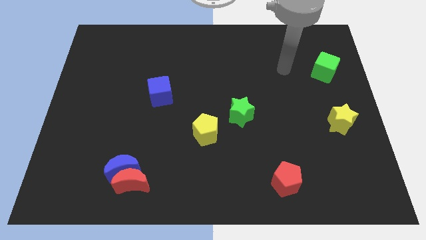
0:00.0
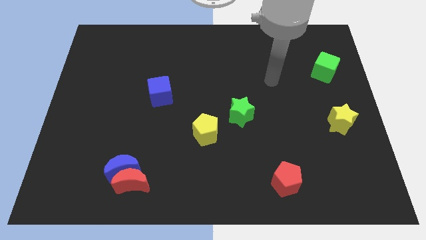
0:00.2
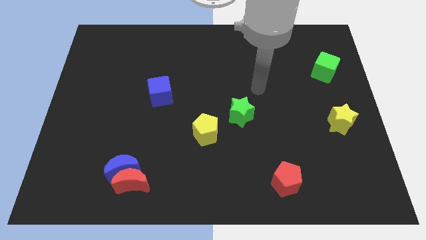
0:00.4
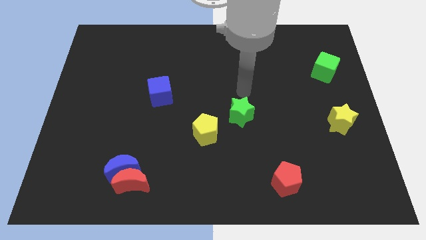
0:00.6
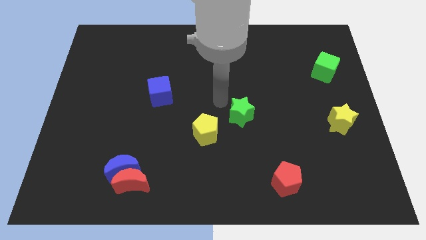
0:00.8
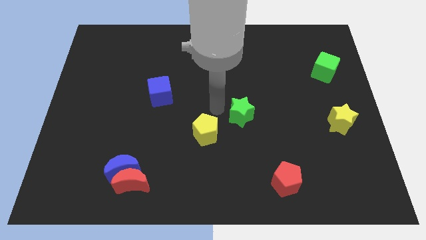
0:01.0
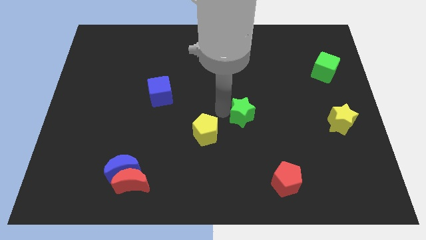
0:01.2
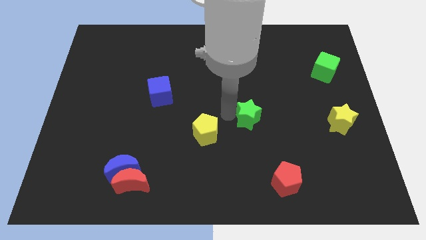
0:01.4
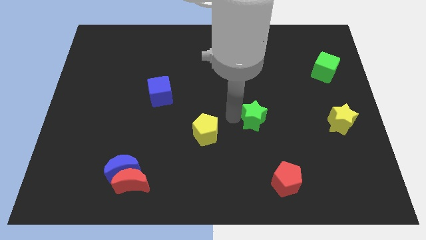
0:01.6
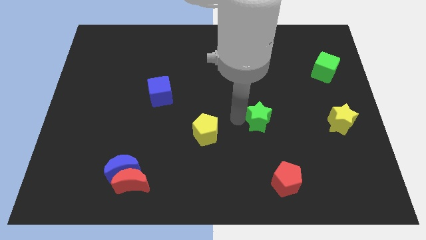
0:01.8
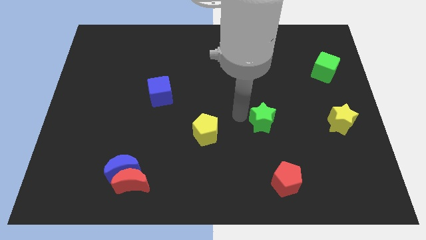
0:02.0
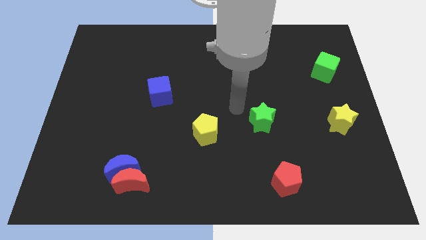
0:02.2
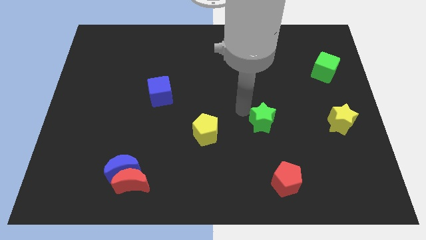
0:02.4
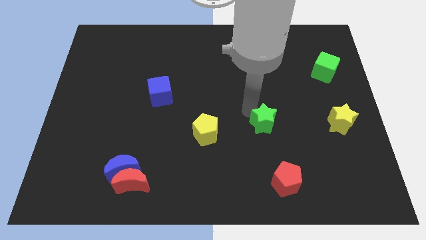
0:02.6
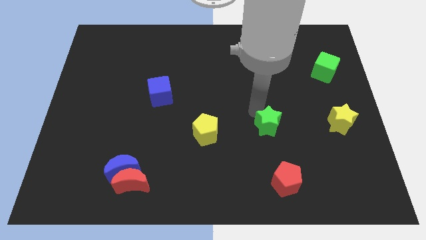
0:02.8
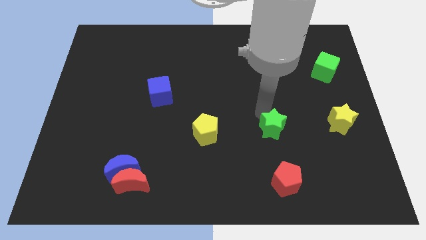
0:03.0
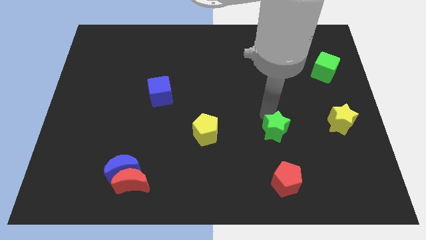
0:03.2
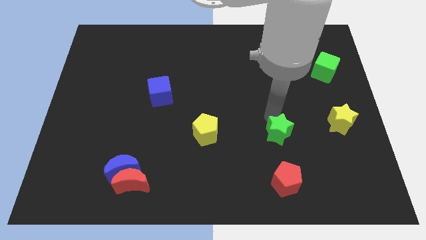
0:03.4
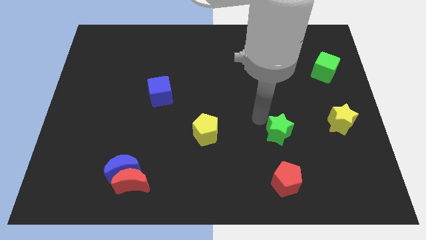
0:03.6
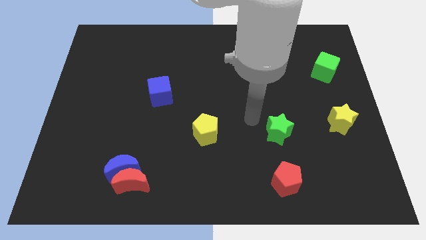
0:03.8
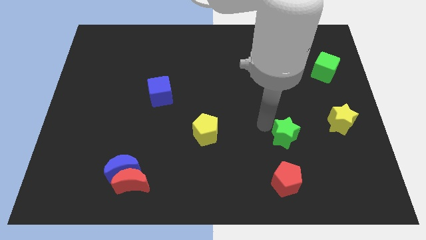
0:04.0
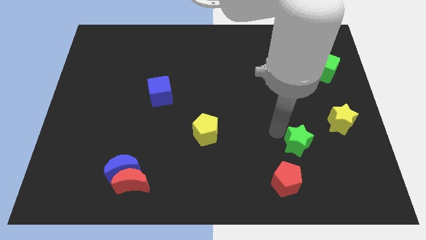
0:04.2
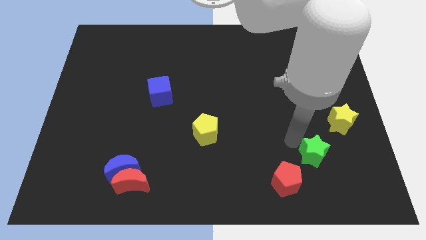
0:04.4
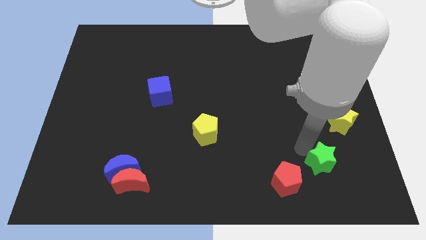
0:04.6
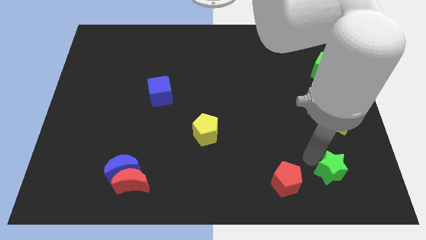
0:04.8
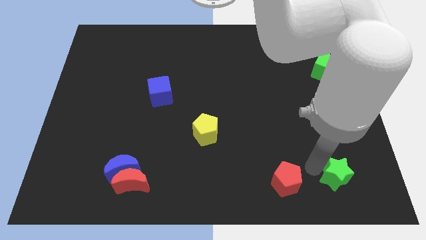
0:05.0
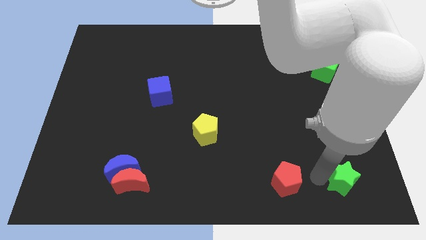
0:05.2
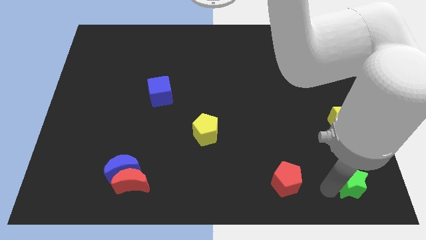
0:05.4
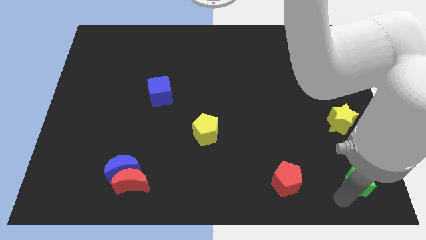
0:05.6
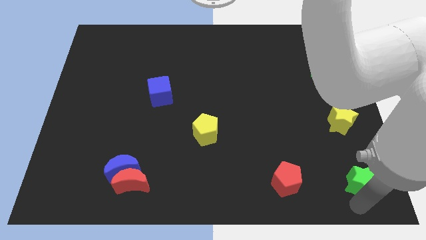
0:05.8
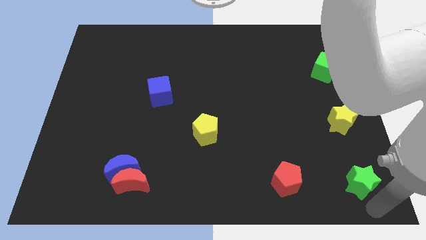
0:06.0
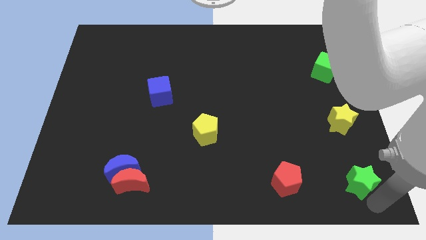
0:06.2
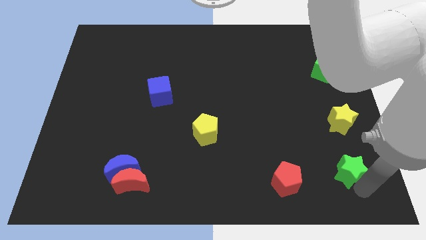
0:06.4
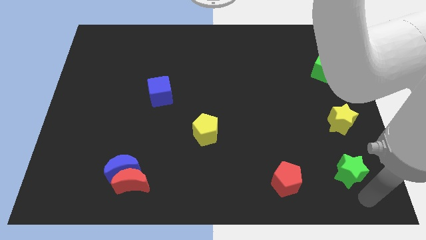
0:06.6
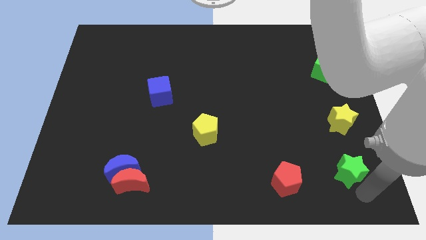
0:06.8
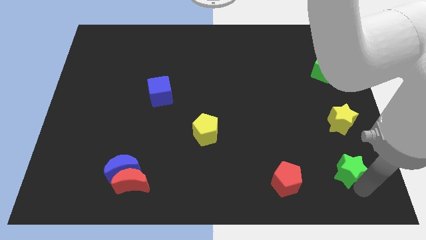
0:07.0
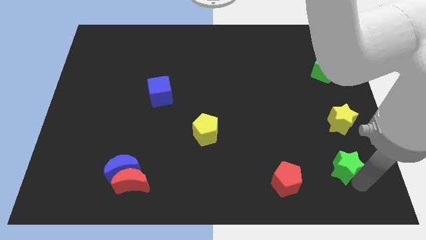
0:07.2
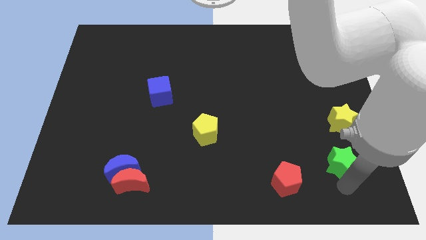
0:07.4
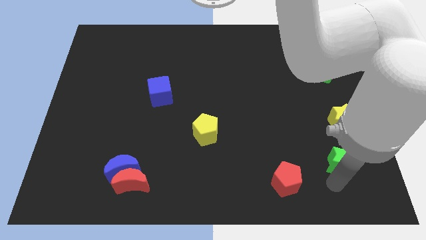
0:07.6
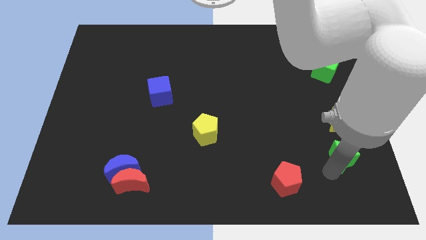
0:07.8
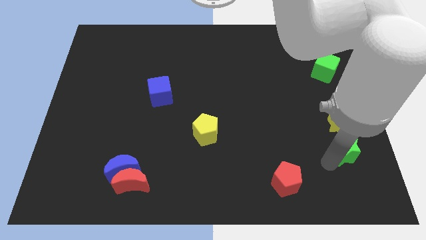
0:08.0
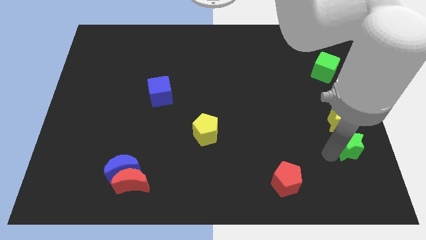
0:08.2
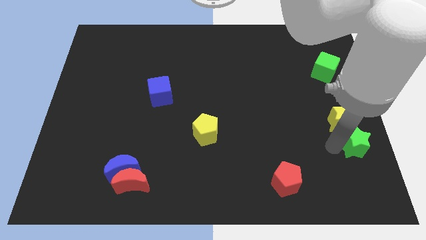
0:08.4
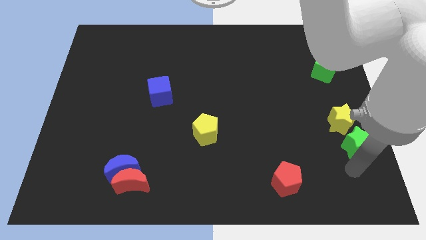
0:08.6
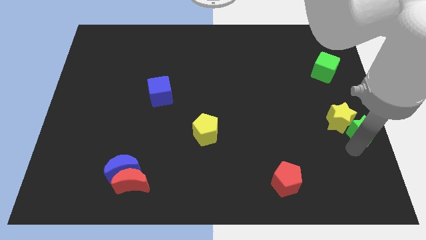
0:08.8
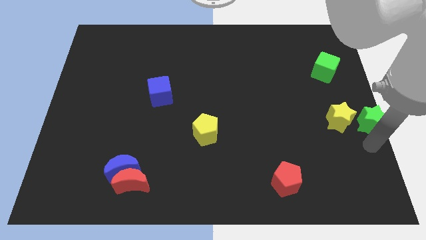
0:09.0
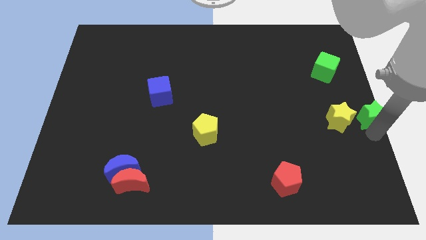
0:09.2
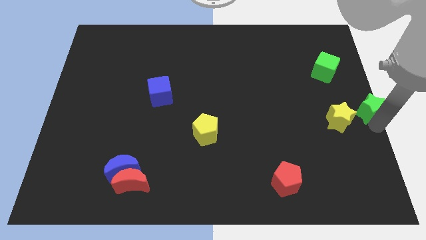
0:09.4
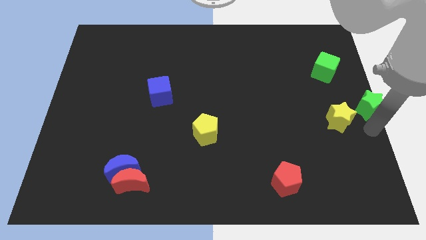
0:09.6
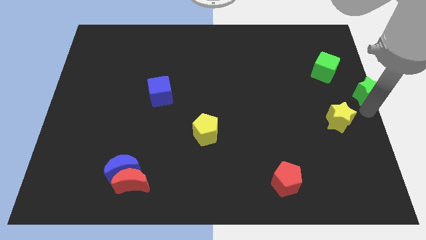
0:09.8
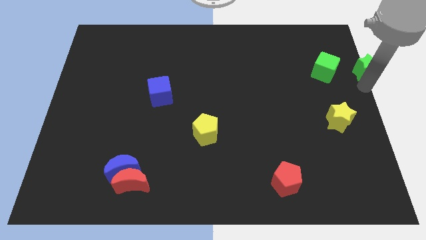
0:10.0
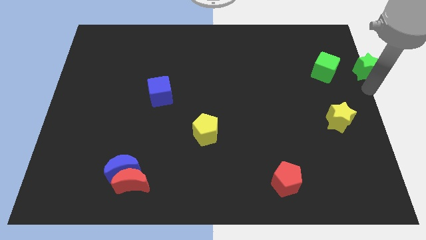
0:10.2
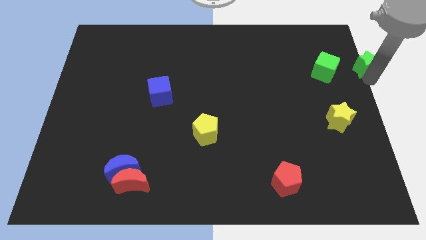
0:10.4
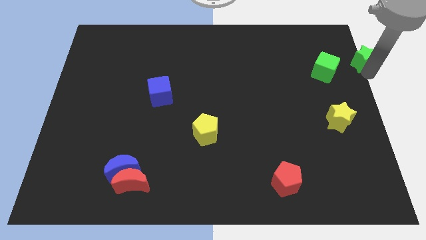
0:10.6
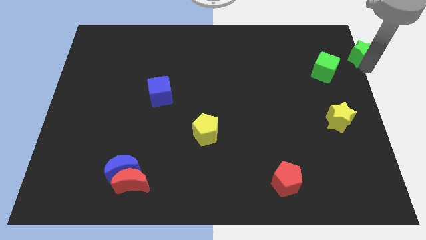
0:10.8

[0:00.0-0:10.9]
move the green star to the top right of the board

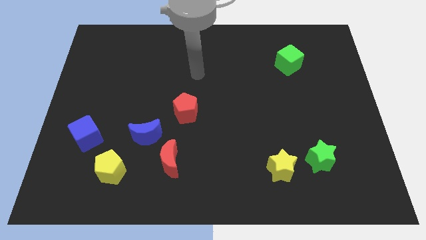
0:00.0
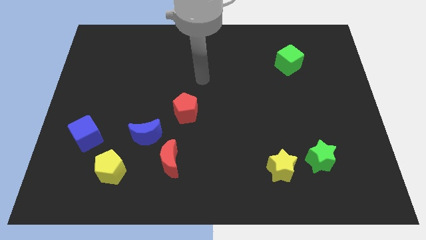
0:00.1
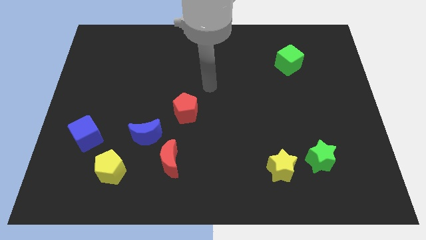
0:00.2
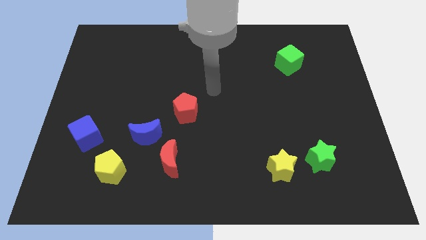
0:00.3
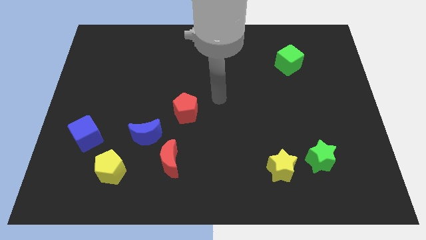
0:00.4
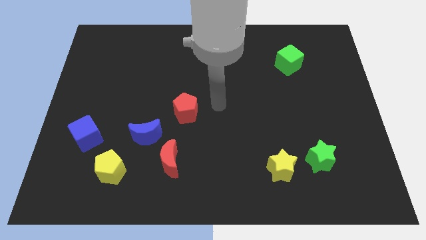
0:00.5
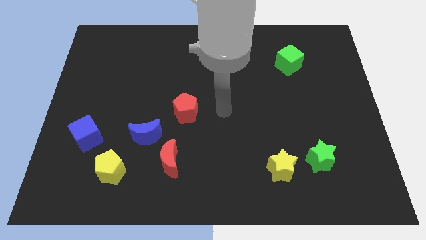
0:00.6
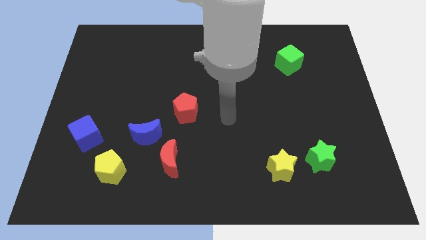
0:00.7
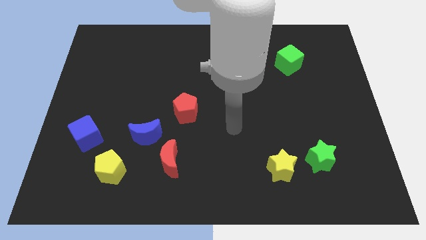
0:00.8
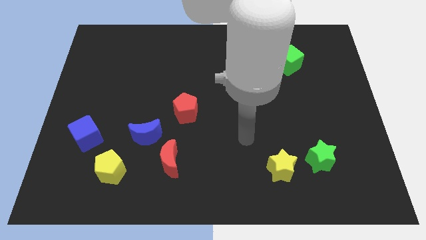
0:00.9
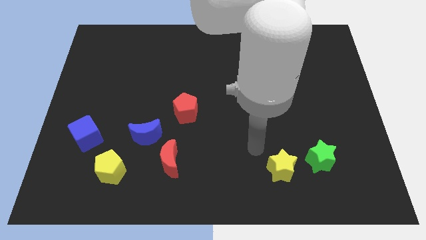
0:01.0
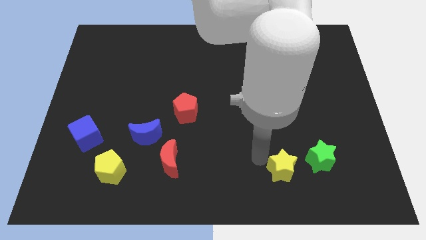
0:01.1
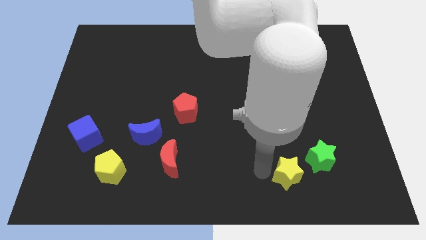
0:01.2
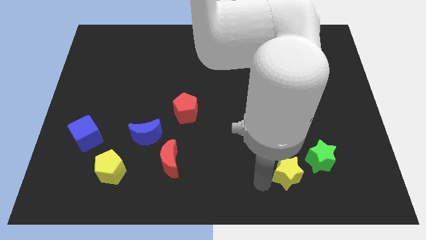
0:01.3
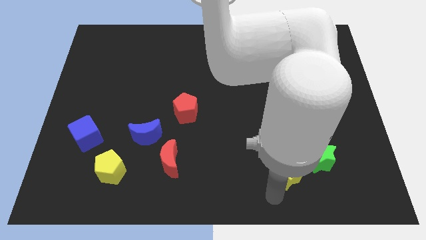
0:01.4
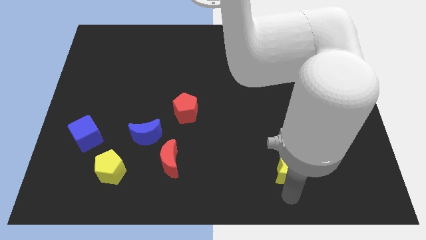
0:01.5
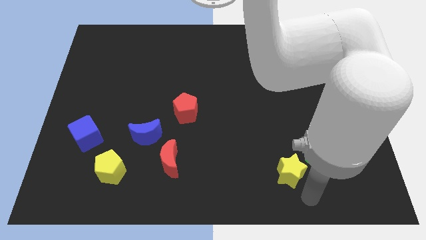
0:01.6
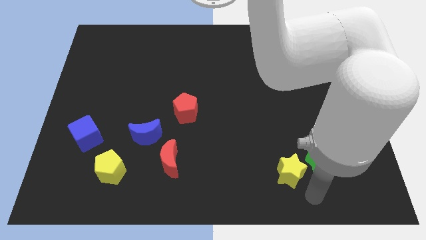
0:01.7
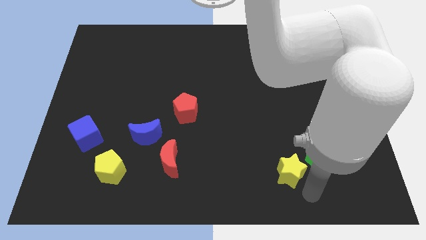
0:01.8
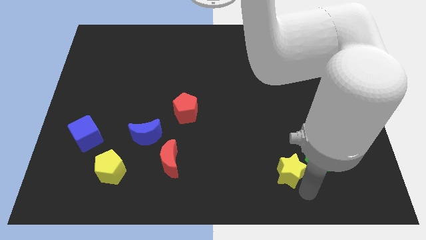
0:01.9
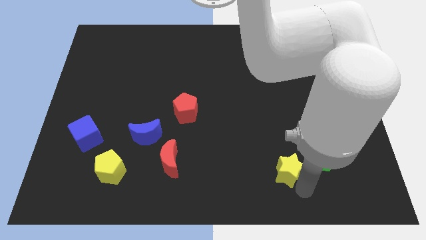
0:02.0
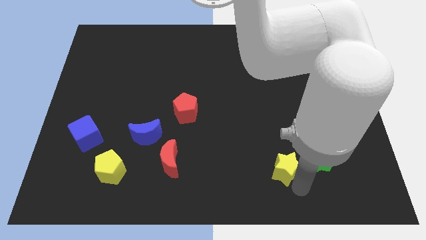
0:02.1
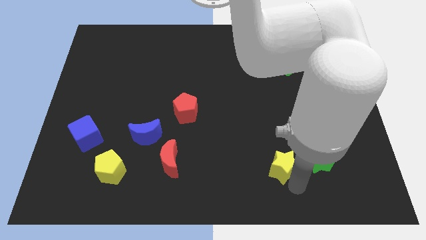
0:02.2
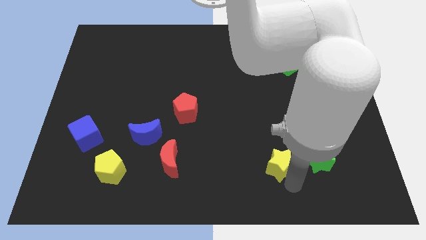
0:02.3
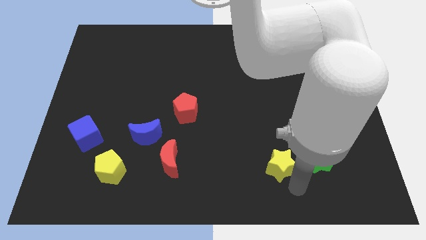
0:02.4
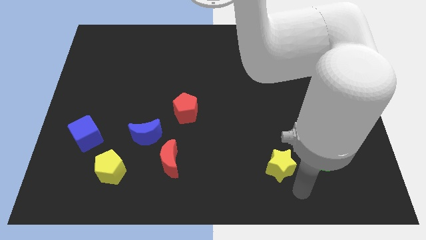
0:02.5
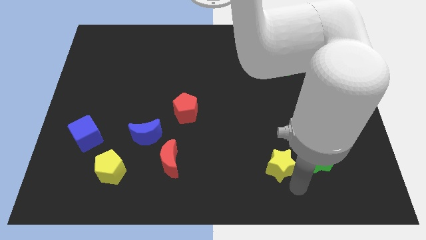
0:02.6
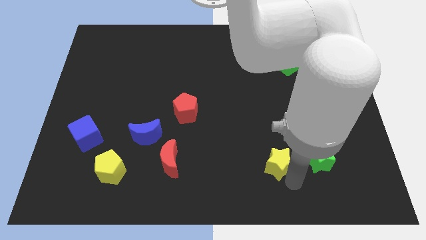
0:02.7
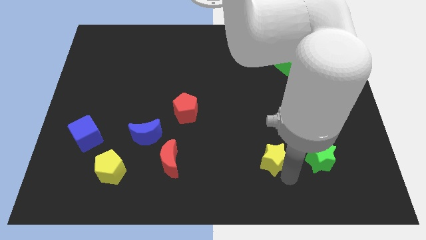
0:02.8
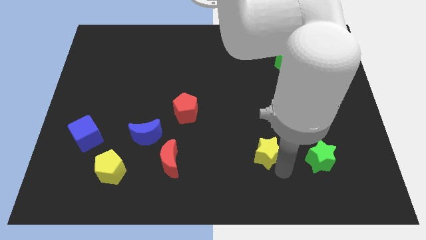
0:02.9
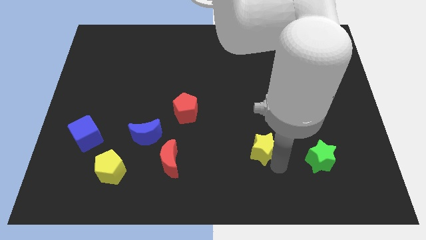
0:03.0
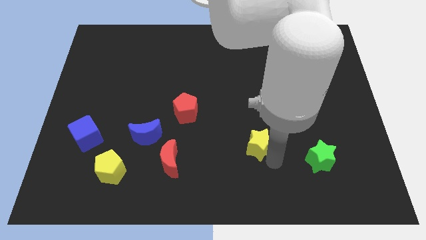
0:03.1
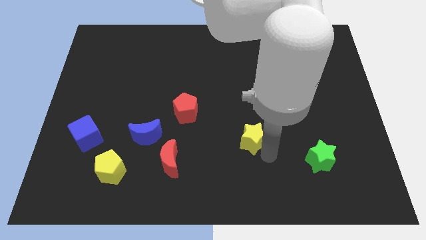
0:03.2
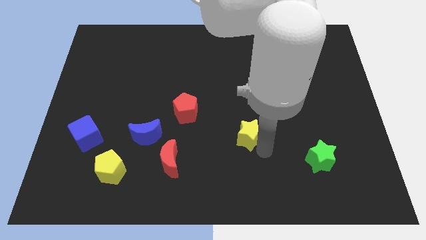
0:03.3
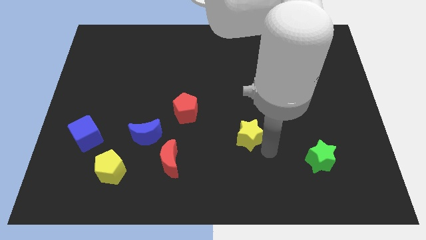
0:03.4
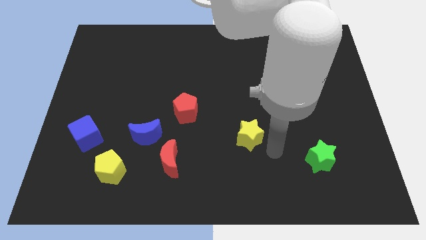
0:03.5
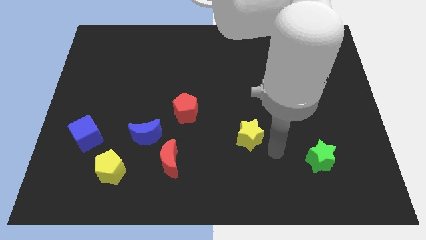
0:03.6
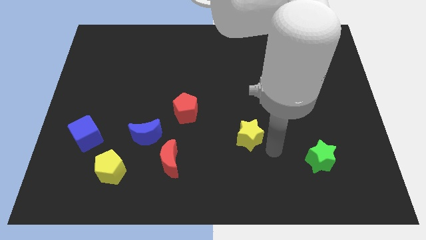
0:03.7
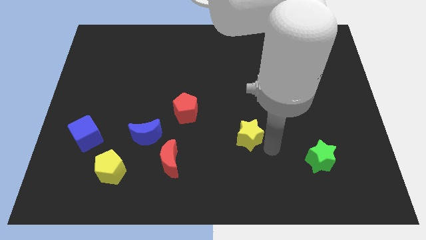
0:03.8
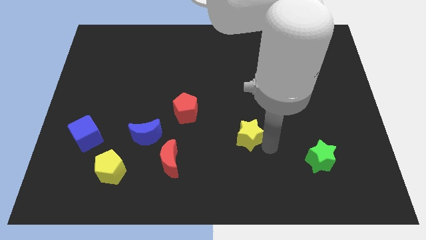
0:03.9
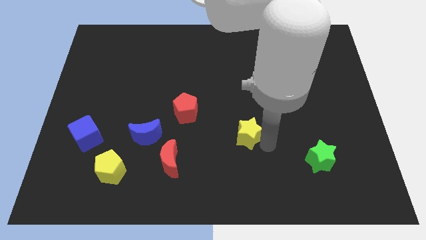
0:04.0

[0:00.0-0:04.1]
push the yellow star to the center of the board
